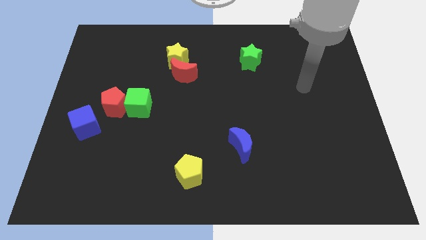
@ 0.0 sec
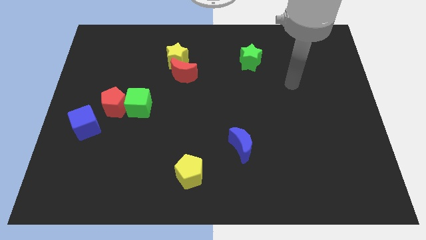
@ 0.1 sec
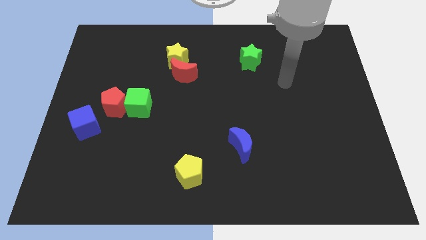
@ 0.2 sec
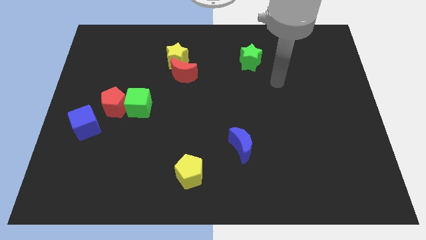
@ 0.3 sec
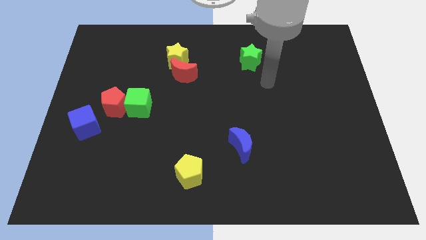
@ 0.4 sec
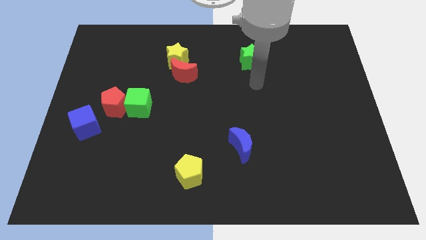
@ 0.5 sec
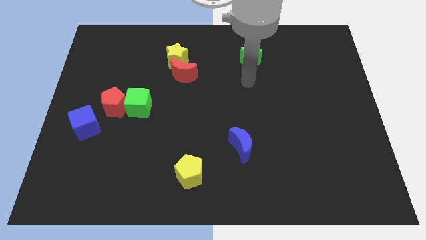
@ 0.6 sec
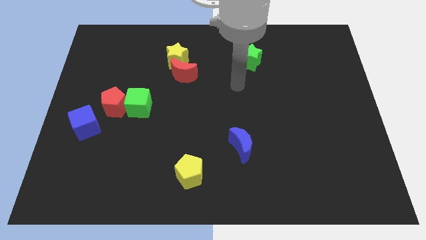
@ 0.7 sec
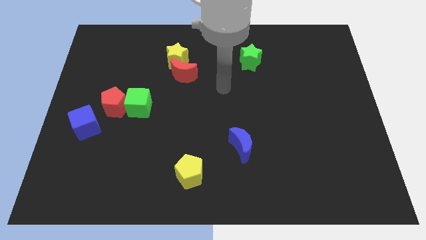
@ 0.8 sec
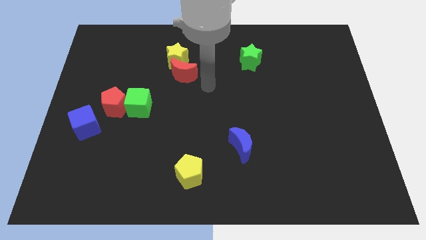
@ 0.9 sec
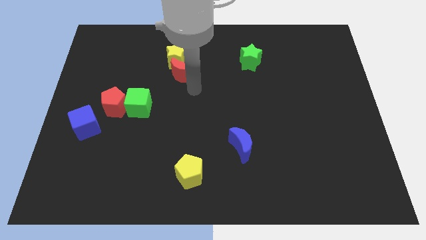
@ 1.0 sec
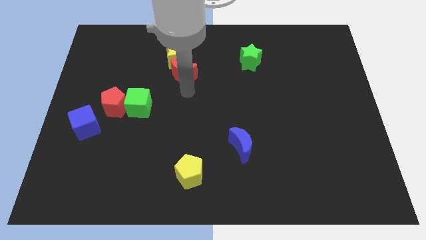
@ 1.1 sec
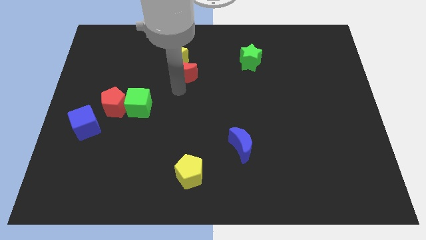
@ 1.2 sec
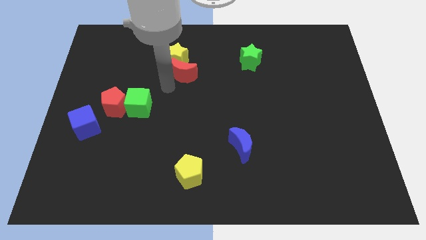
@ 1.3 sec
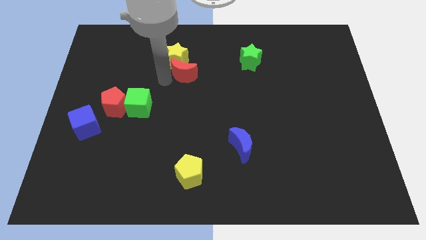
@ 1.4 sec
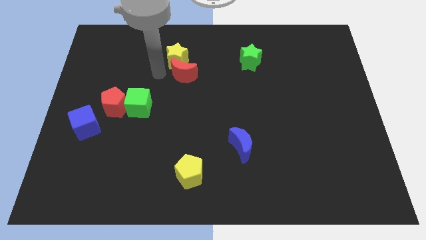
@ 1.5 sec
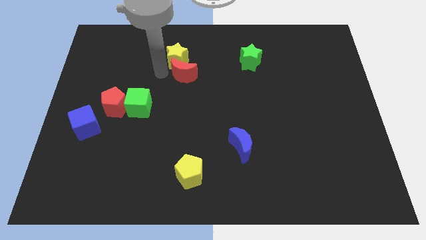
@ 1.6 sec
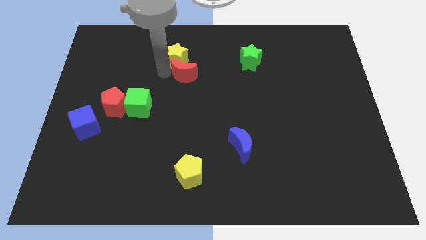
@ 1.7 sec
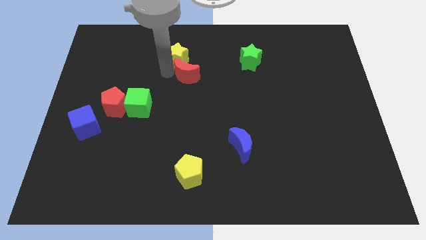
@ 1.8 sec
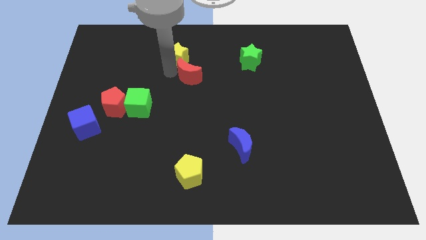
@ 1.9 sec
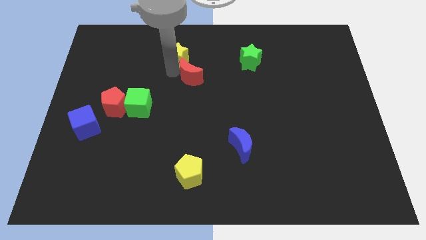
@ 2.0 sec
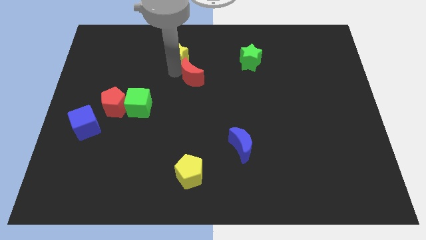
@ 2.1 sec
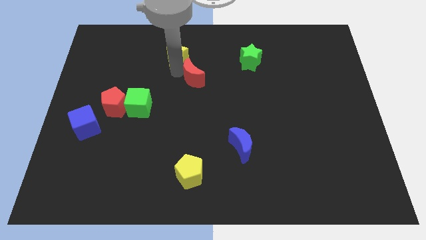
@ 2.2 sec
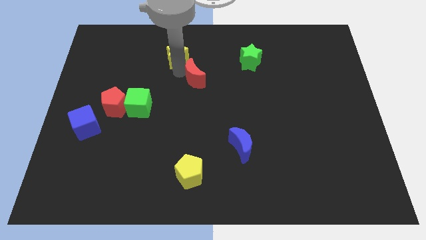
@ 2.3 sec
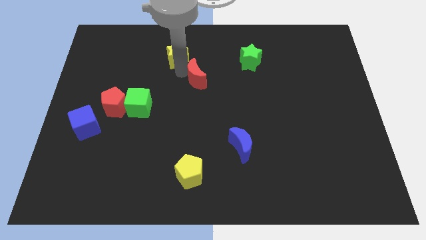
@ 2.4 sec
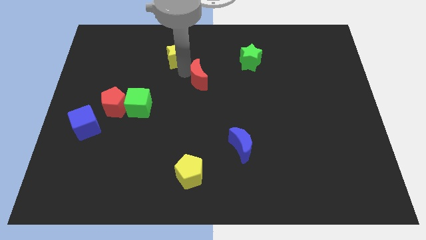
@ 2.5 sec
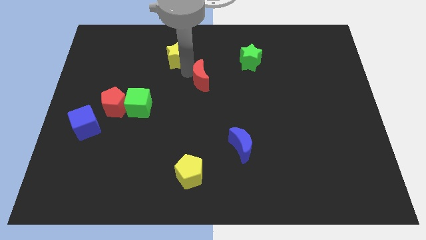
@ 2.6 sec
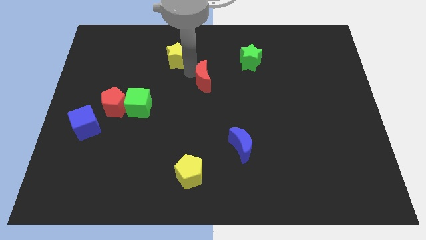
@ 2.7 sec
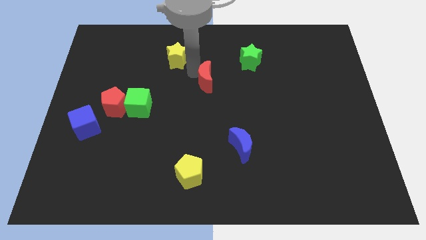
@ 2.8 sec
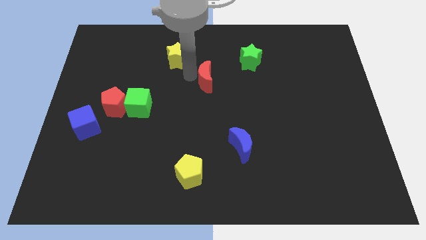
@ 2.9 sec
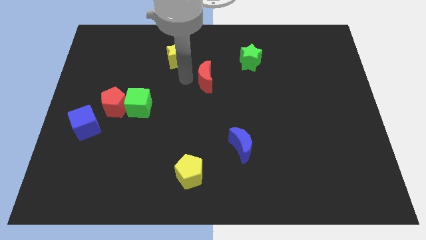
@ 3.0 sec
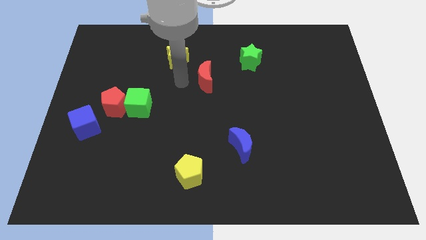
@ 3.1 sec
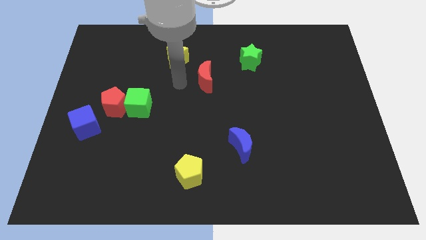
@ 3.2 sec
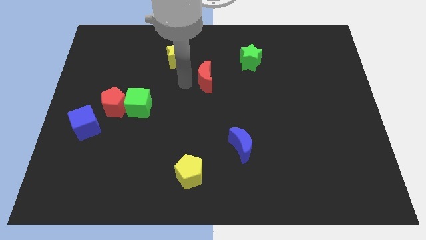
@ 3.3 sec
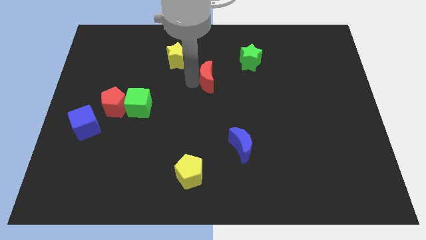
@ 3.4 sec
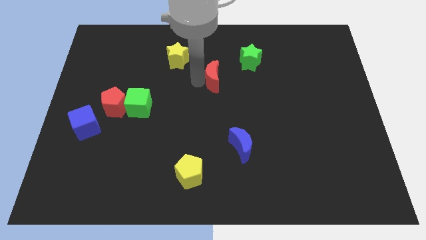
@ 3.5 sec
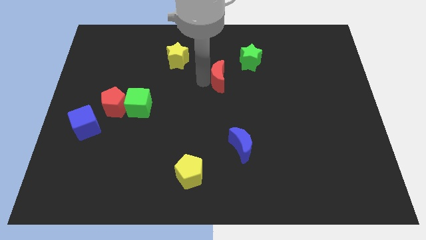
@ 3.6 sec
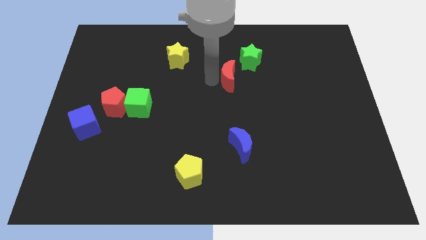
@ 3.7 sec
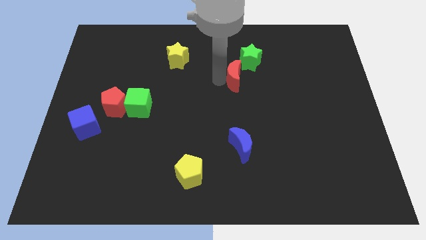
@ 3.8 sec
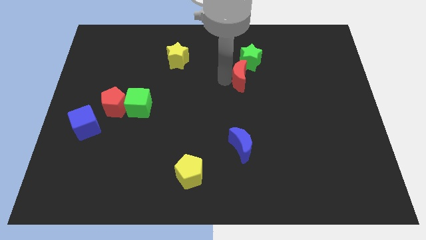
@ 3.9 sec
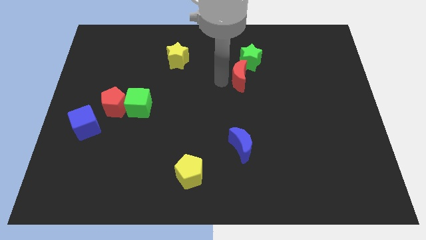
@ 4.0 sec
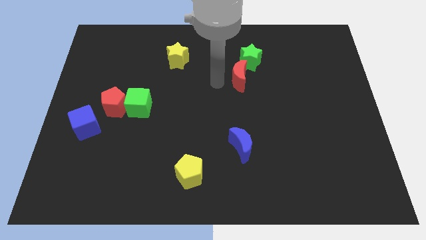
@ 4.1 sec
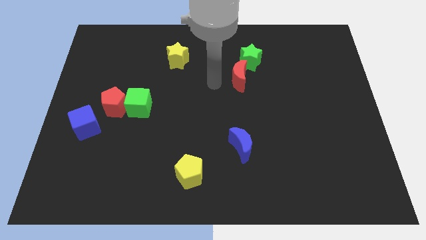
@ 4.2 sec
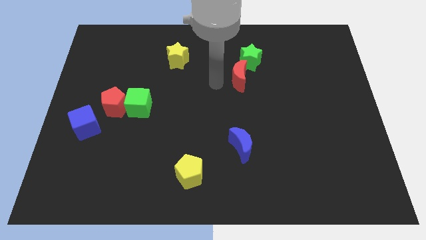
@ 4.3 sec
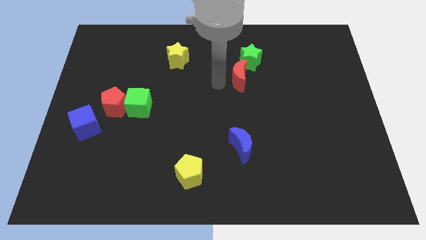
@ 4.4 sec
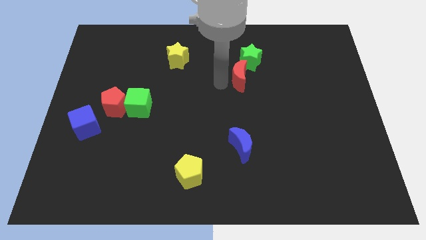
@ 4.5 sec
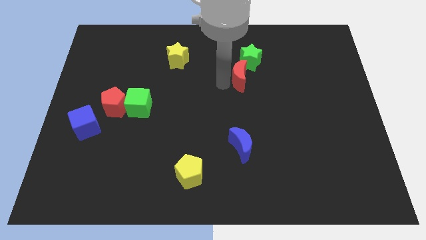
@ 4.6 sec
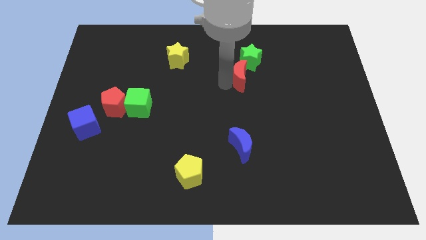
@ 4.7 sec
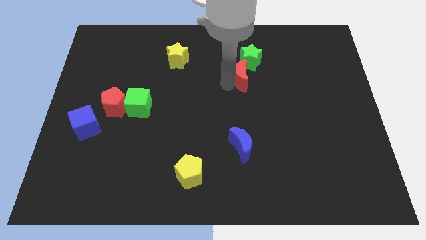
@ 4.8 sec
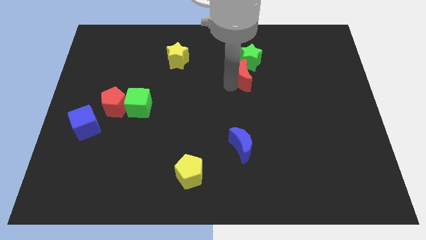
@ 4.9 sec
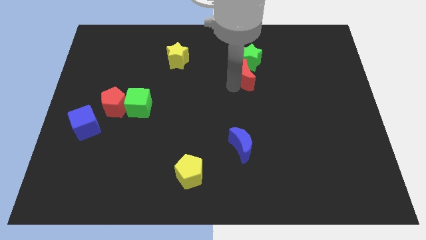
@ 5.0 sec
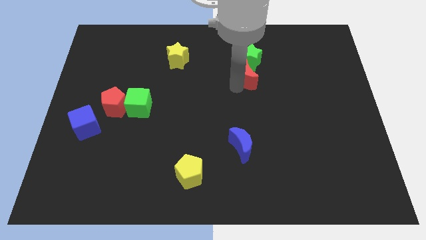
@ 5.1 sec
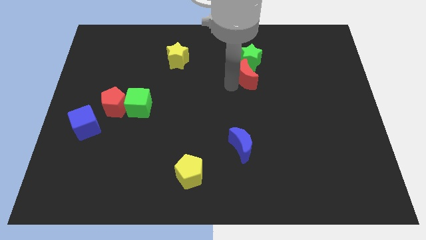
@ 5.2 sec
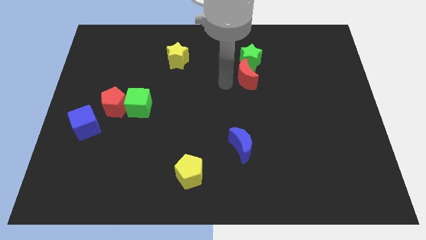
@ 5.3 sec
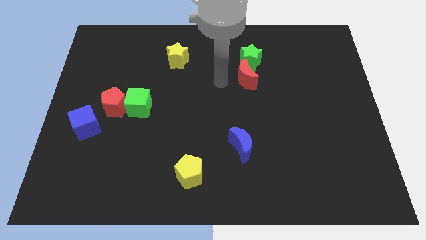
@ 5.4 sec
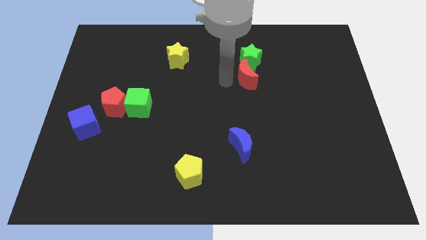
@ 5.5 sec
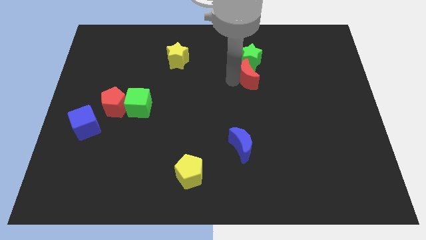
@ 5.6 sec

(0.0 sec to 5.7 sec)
move the red moon to the bottom right side of the green star

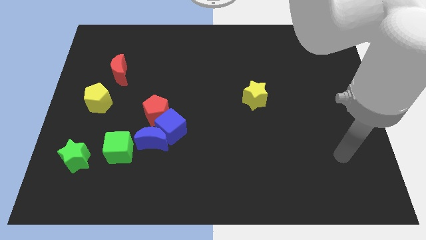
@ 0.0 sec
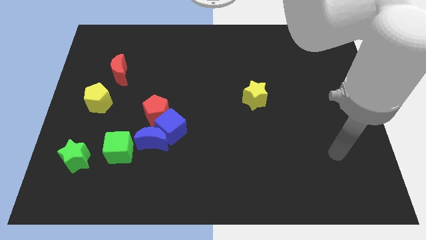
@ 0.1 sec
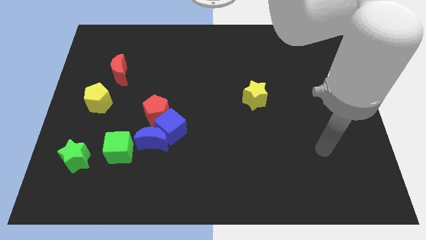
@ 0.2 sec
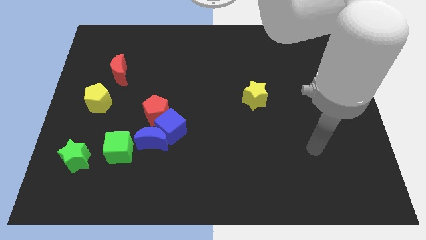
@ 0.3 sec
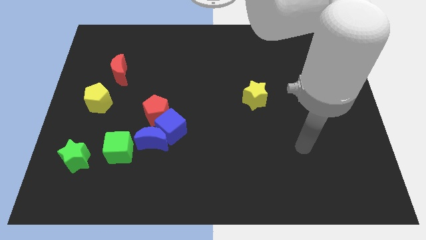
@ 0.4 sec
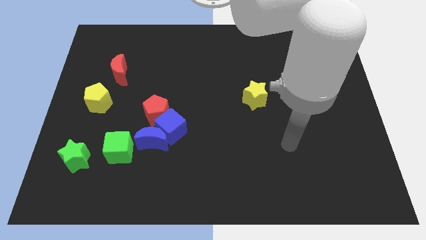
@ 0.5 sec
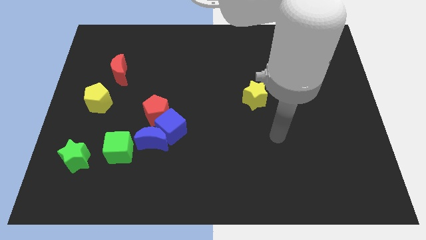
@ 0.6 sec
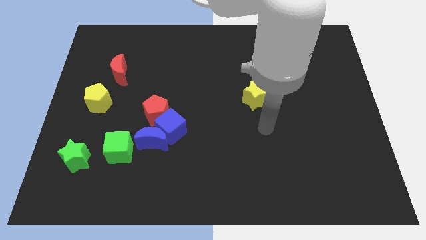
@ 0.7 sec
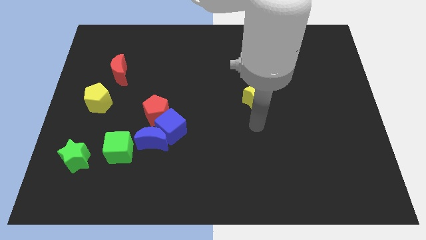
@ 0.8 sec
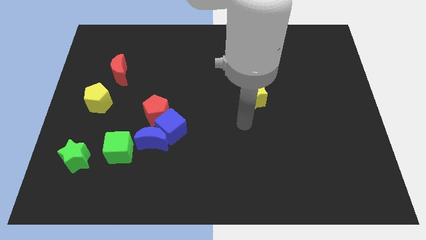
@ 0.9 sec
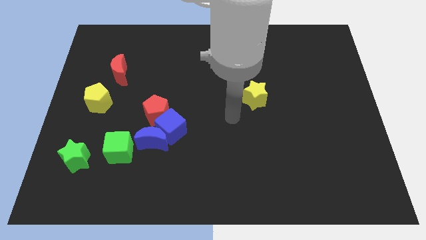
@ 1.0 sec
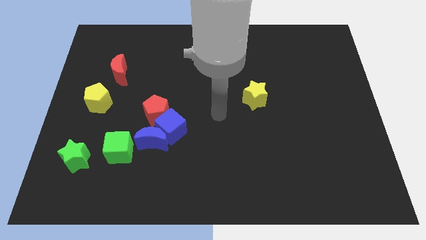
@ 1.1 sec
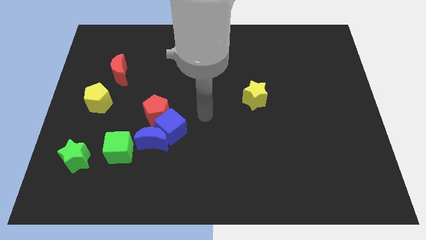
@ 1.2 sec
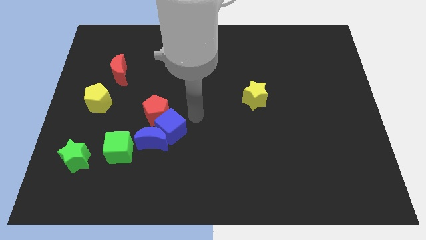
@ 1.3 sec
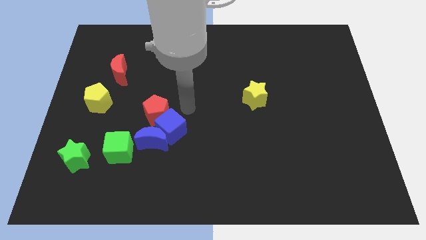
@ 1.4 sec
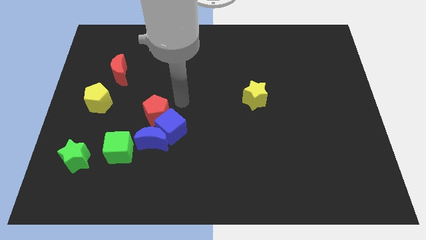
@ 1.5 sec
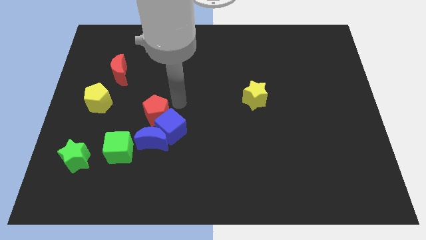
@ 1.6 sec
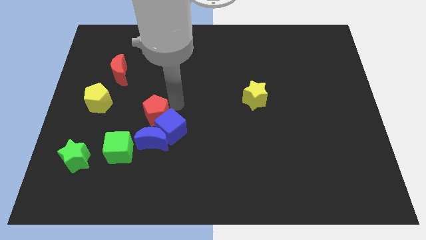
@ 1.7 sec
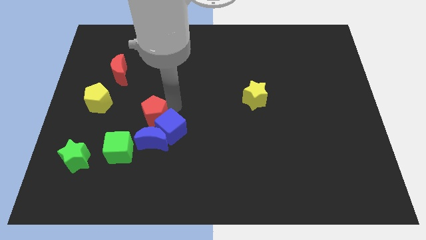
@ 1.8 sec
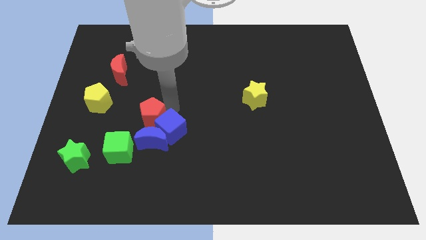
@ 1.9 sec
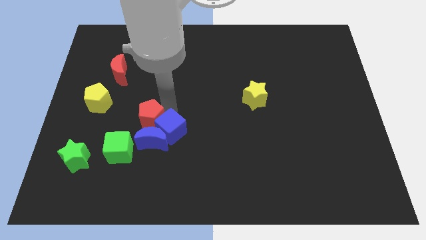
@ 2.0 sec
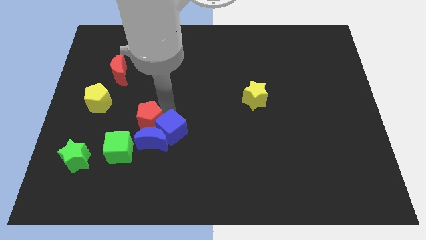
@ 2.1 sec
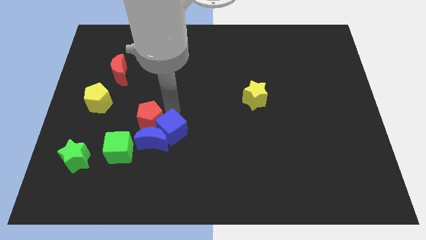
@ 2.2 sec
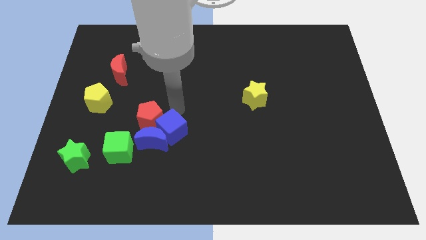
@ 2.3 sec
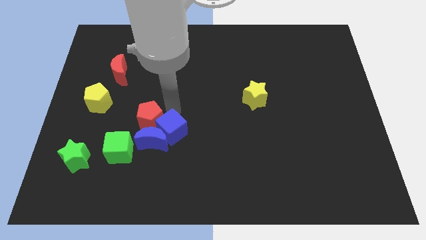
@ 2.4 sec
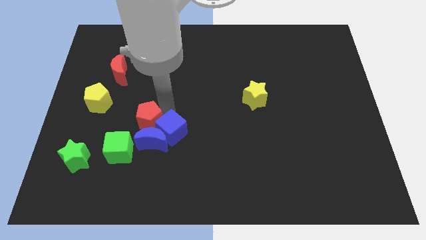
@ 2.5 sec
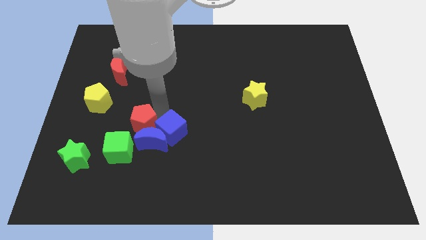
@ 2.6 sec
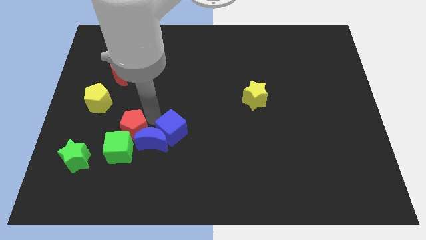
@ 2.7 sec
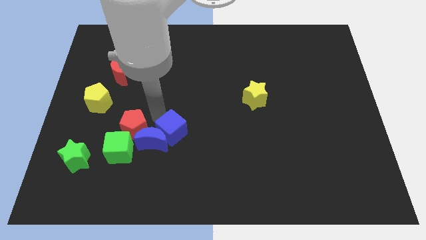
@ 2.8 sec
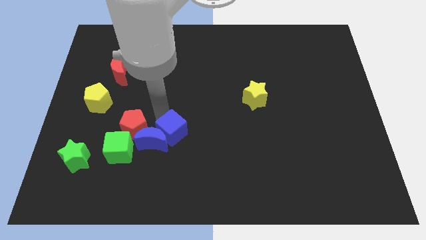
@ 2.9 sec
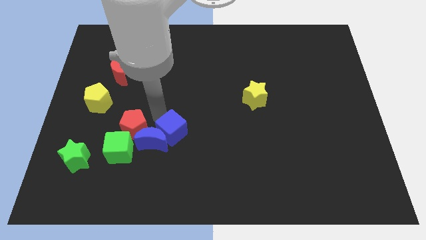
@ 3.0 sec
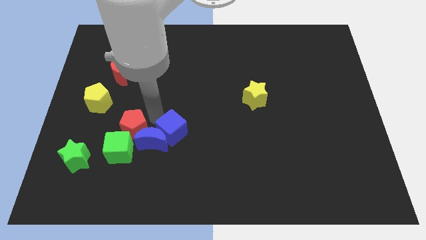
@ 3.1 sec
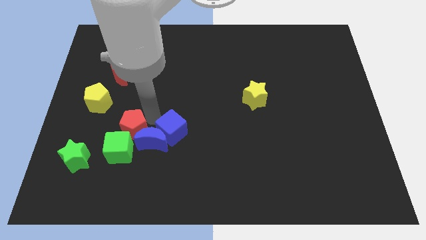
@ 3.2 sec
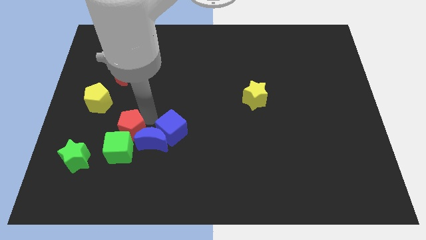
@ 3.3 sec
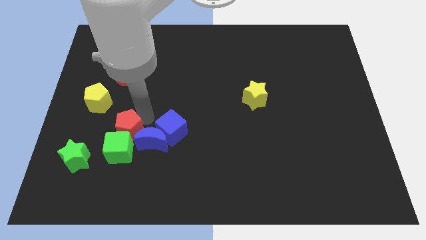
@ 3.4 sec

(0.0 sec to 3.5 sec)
push the red pentagon diagonally up and to the right of the green star
